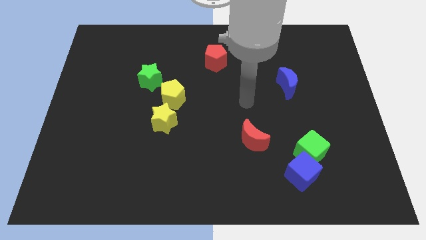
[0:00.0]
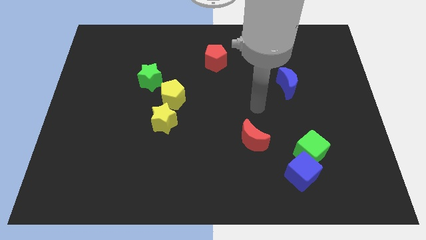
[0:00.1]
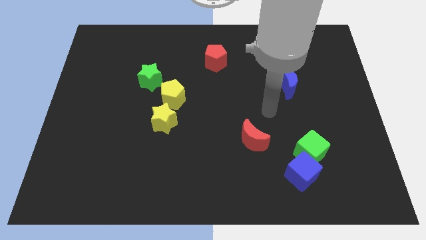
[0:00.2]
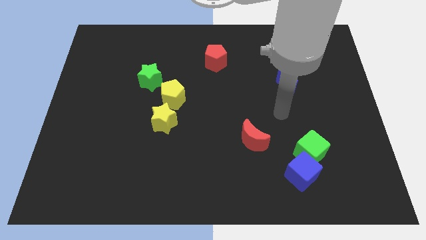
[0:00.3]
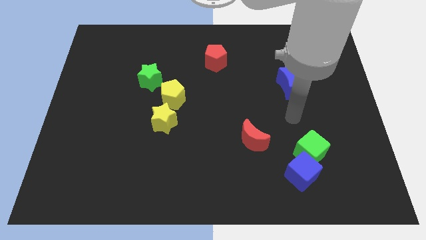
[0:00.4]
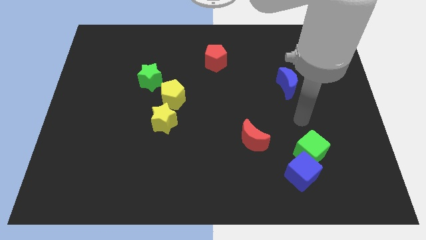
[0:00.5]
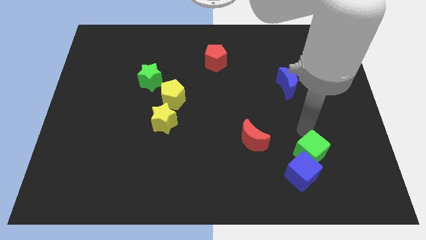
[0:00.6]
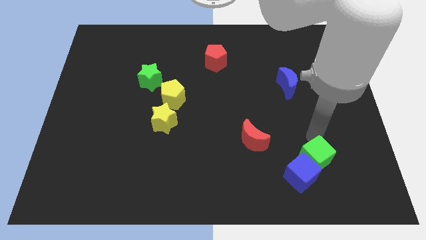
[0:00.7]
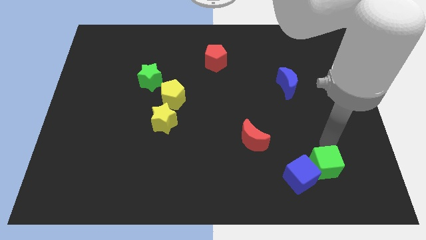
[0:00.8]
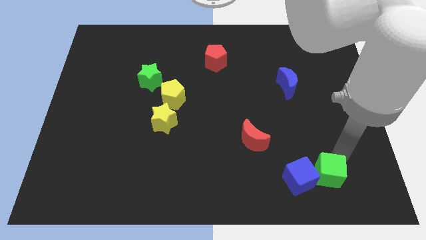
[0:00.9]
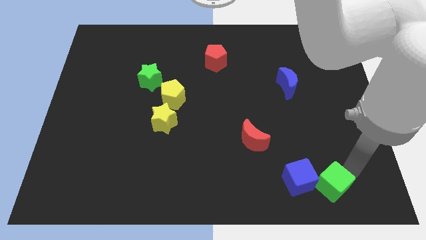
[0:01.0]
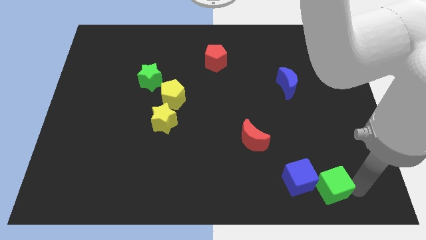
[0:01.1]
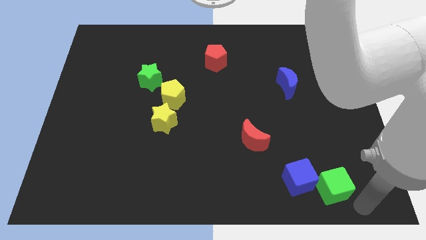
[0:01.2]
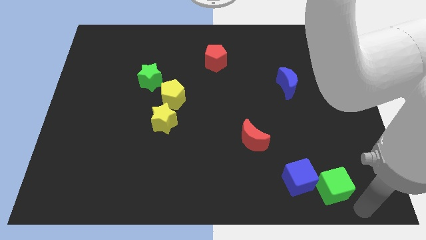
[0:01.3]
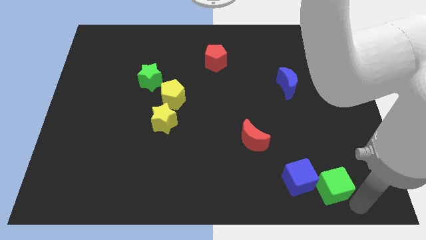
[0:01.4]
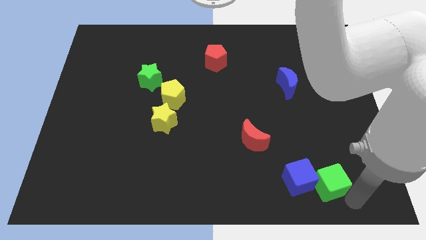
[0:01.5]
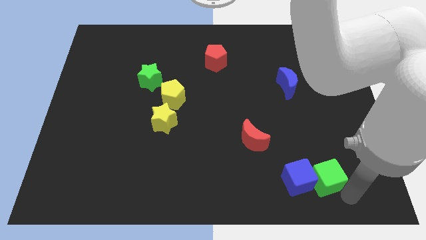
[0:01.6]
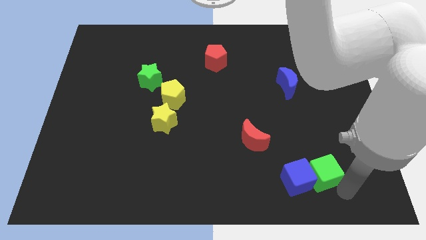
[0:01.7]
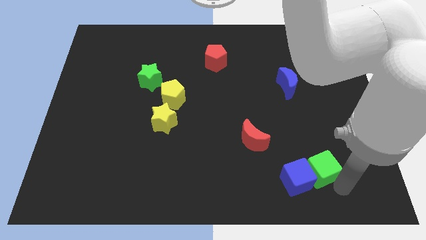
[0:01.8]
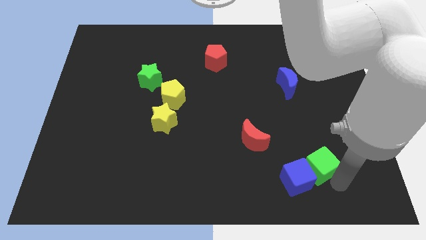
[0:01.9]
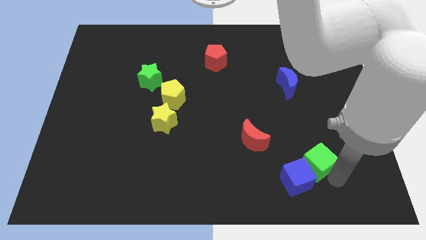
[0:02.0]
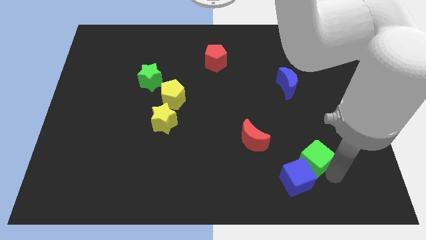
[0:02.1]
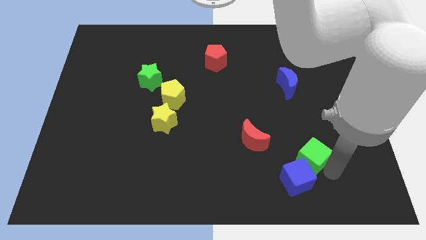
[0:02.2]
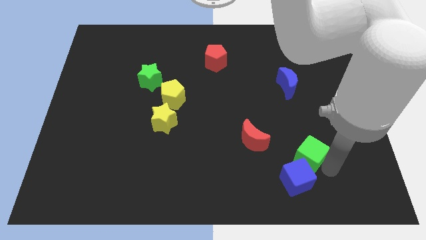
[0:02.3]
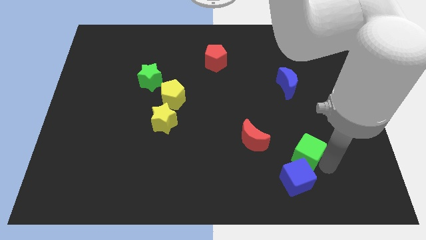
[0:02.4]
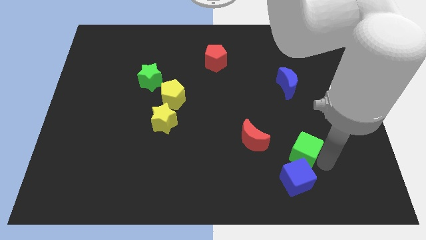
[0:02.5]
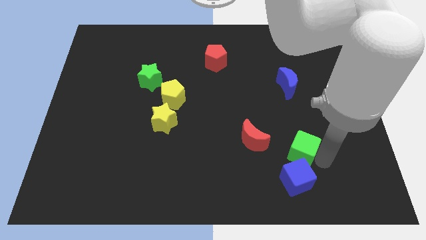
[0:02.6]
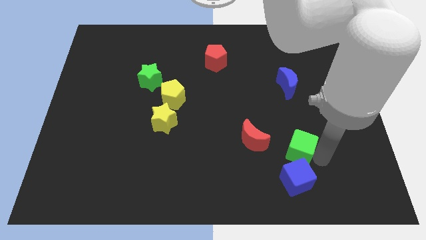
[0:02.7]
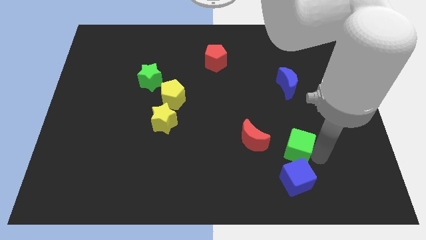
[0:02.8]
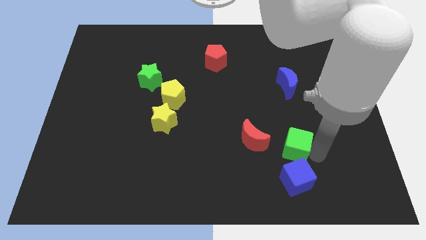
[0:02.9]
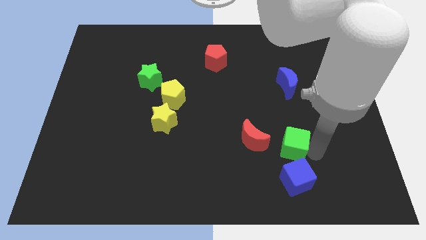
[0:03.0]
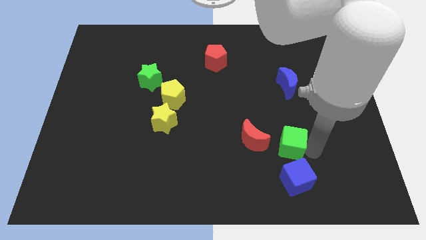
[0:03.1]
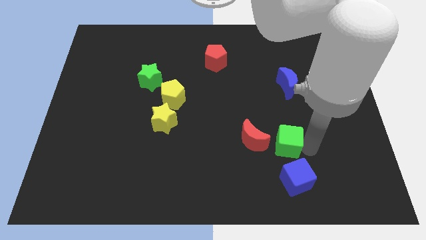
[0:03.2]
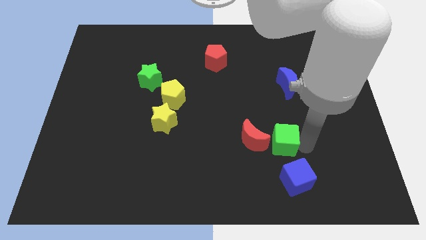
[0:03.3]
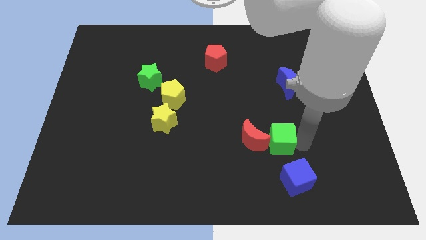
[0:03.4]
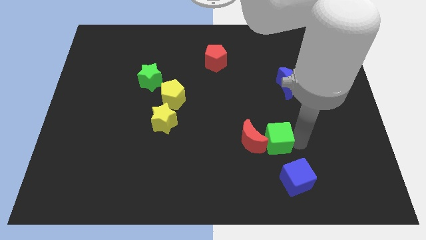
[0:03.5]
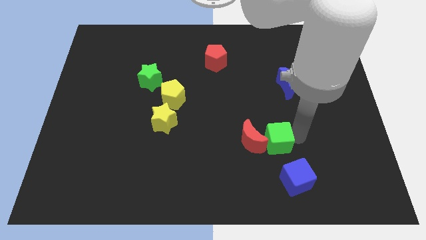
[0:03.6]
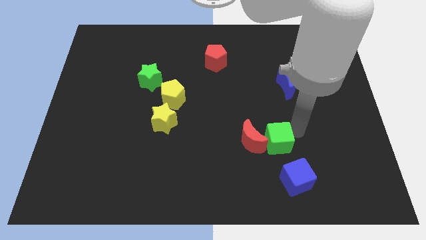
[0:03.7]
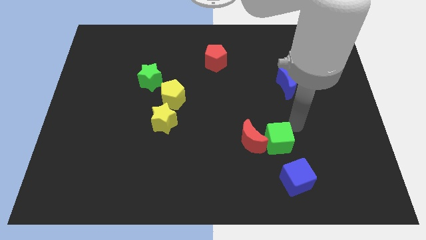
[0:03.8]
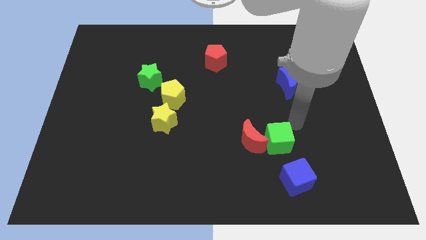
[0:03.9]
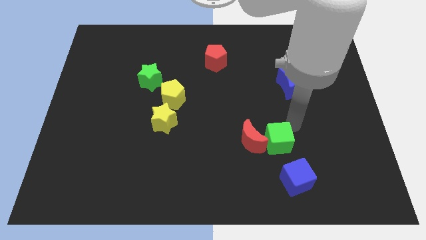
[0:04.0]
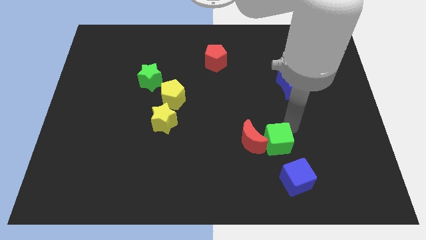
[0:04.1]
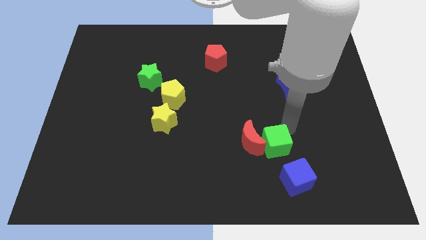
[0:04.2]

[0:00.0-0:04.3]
slightly slide the green cube to the left

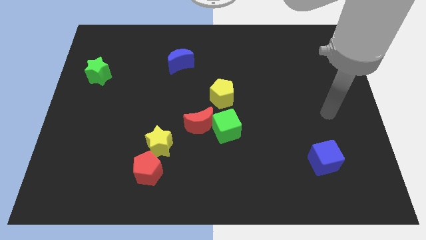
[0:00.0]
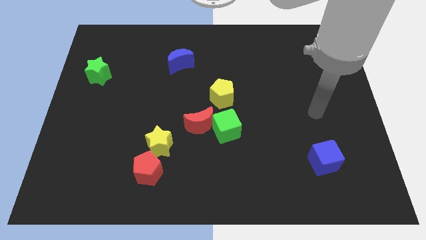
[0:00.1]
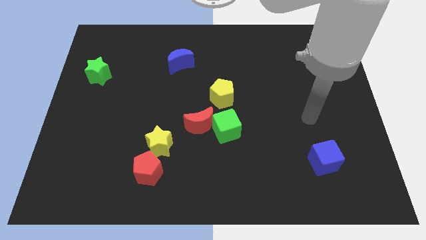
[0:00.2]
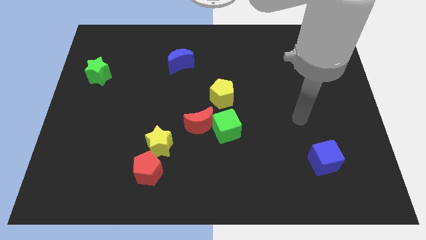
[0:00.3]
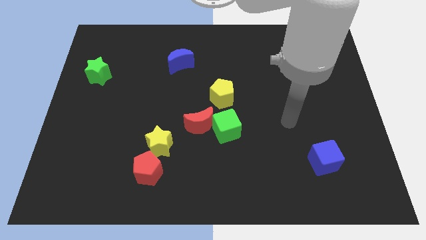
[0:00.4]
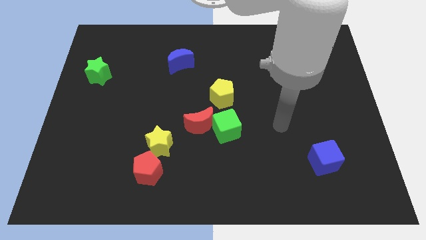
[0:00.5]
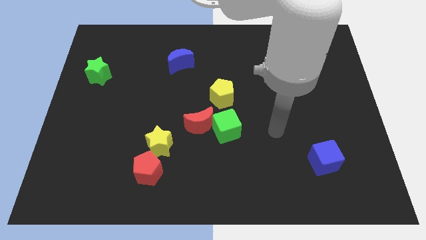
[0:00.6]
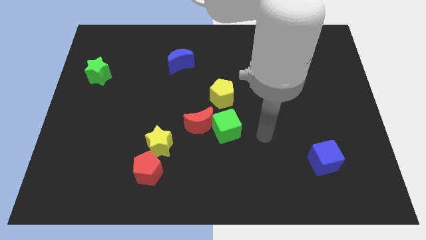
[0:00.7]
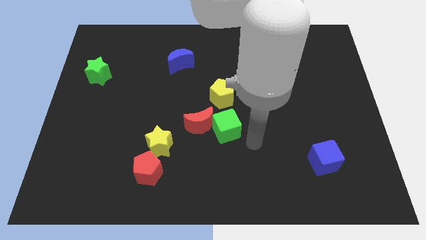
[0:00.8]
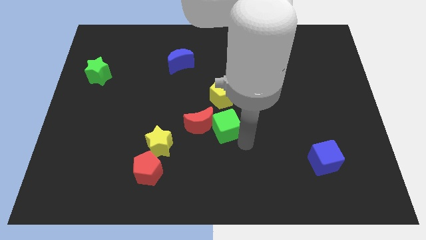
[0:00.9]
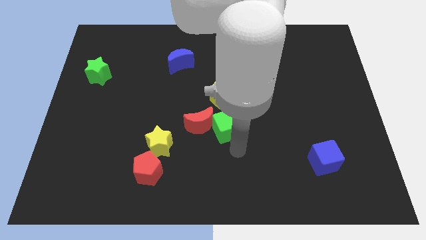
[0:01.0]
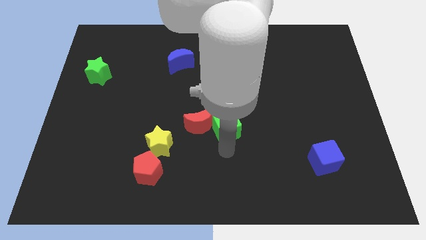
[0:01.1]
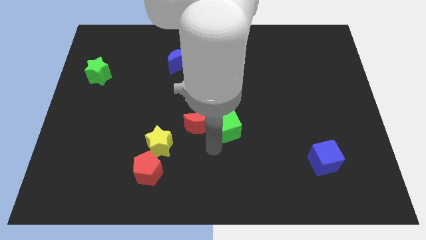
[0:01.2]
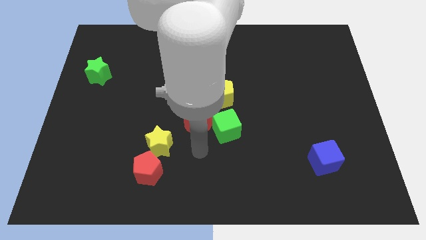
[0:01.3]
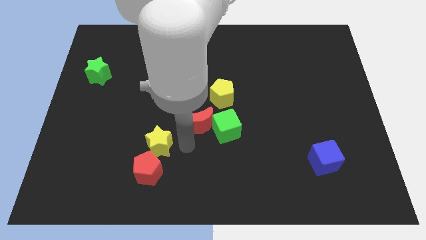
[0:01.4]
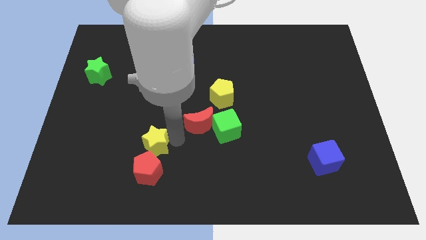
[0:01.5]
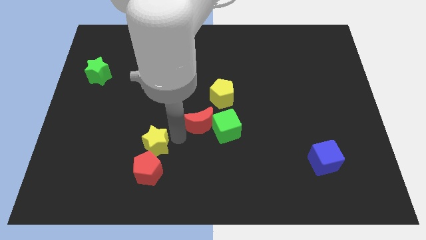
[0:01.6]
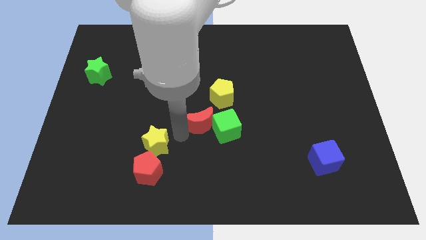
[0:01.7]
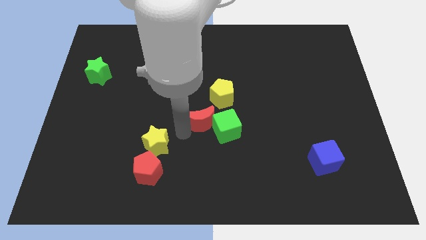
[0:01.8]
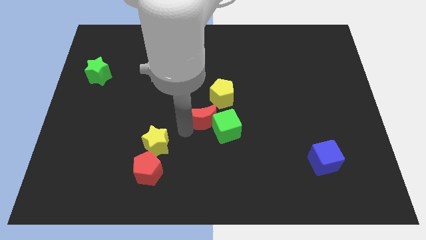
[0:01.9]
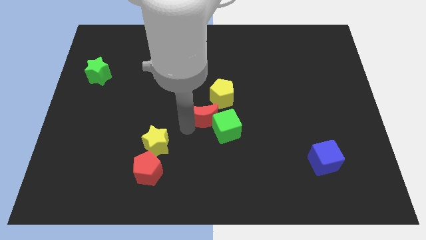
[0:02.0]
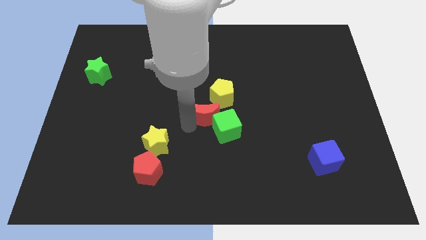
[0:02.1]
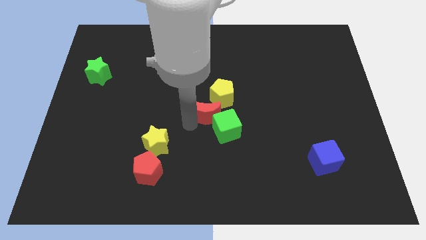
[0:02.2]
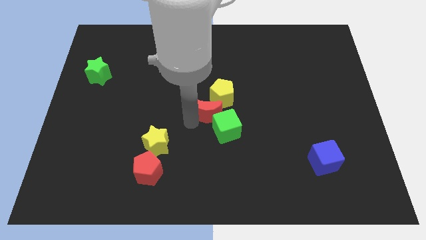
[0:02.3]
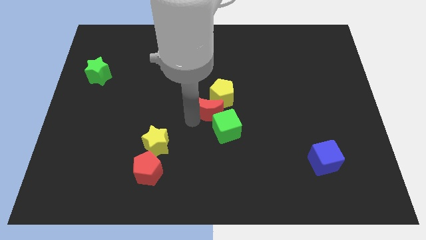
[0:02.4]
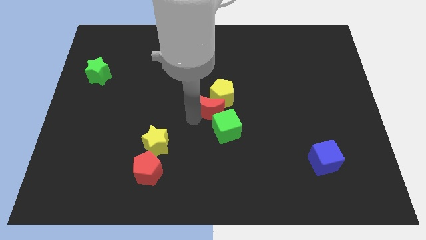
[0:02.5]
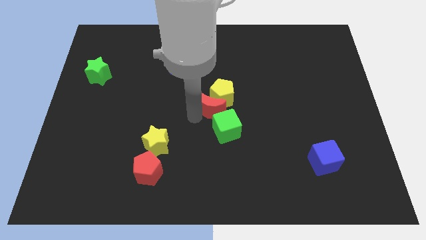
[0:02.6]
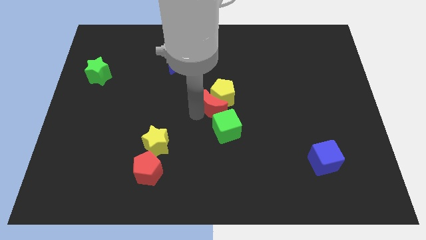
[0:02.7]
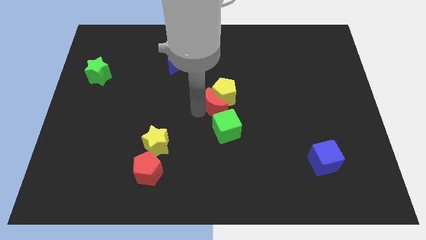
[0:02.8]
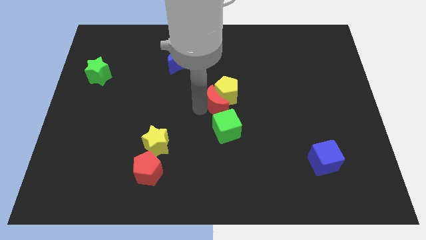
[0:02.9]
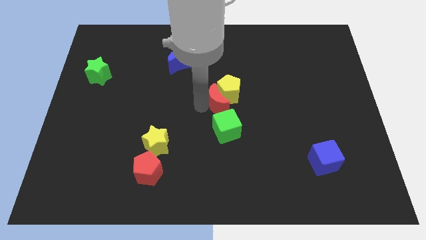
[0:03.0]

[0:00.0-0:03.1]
slide the red moon a little up and then to the right

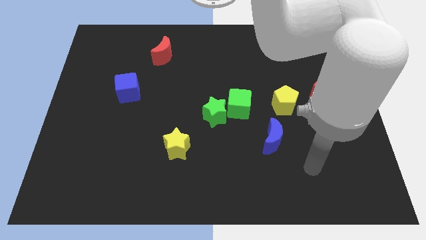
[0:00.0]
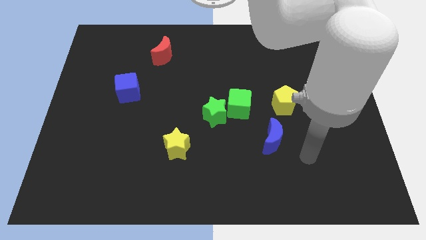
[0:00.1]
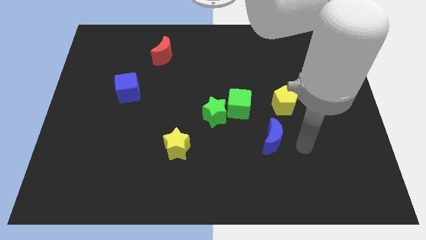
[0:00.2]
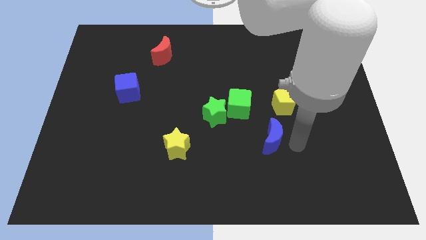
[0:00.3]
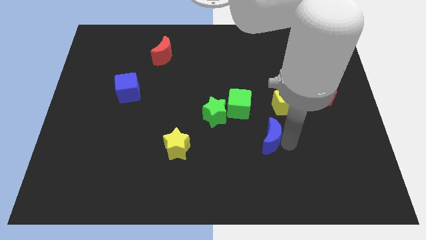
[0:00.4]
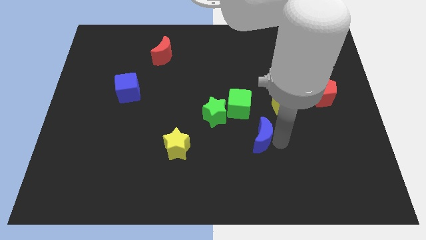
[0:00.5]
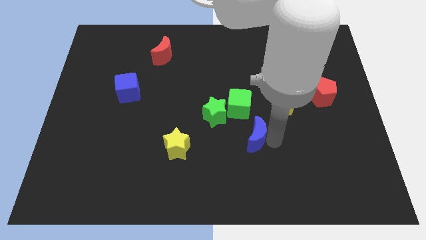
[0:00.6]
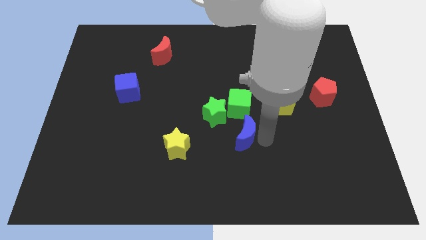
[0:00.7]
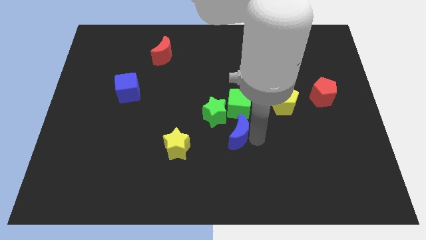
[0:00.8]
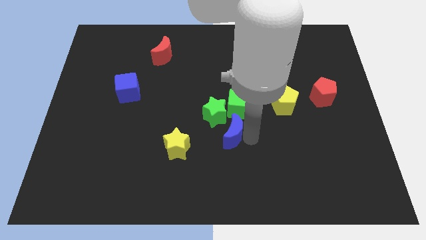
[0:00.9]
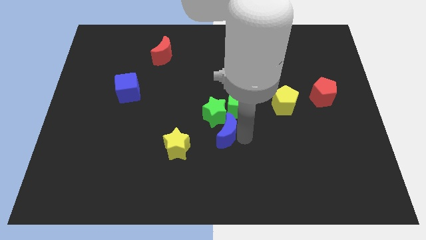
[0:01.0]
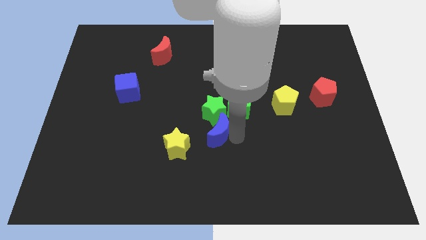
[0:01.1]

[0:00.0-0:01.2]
move the blue moon a bit upwards and then left
